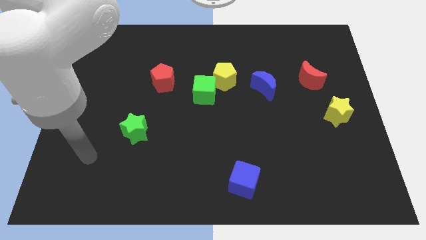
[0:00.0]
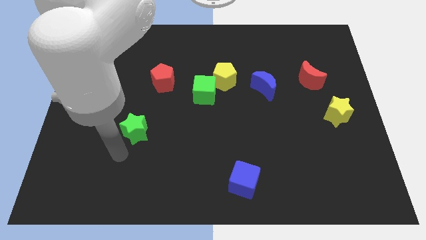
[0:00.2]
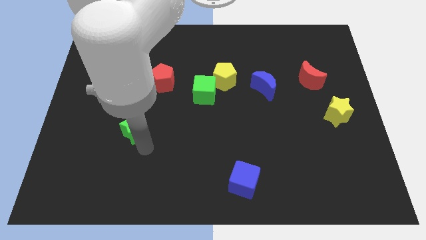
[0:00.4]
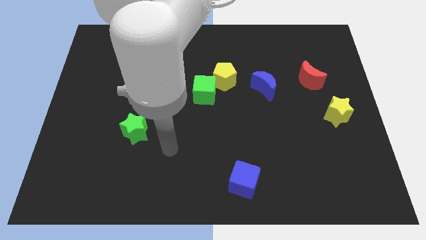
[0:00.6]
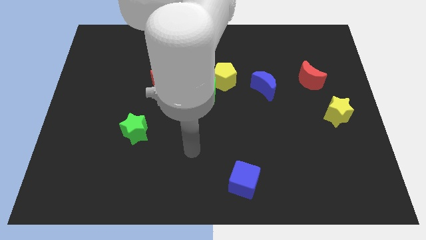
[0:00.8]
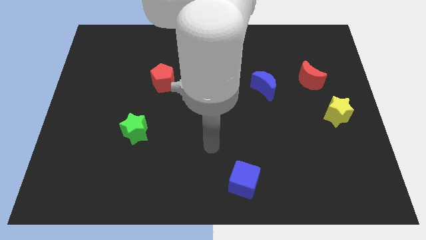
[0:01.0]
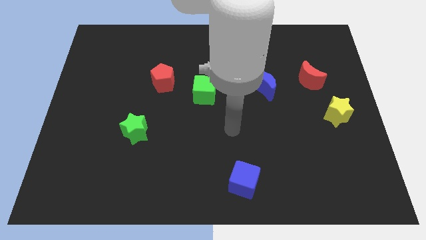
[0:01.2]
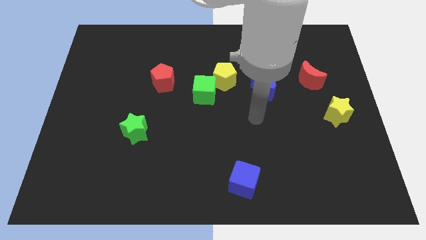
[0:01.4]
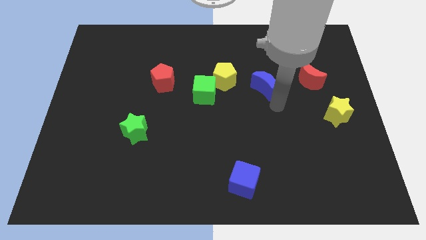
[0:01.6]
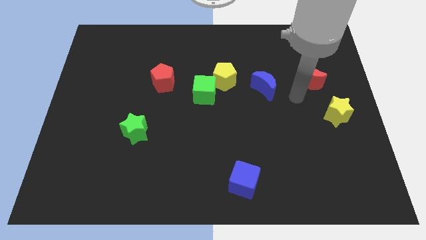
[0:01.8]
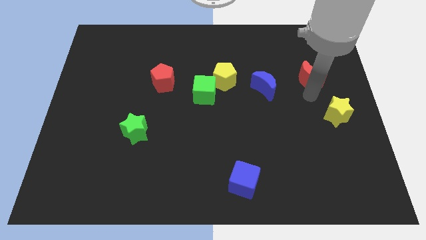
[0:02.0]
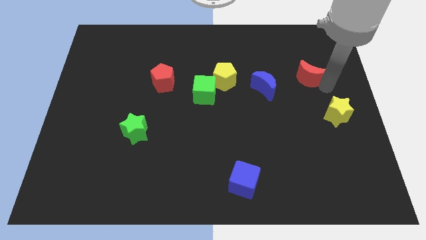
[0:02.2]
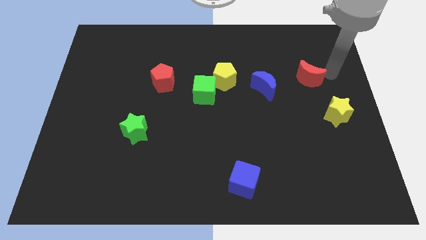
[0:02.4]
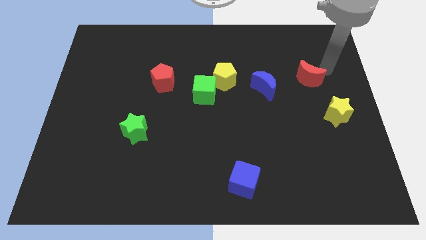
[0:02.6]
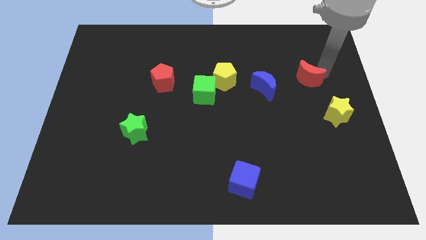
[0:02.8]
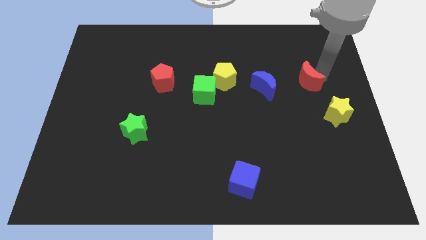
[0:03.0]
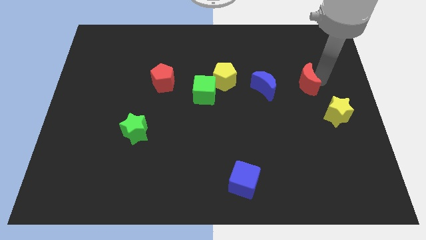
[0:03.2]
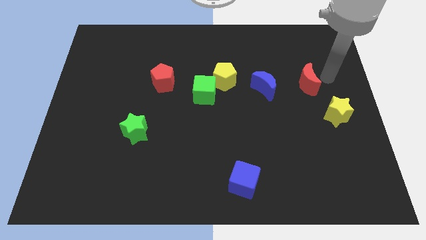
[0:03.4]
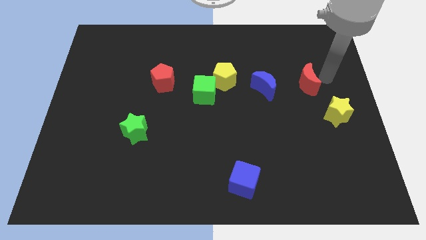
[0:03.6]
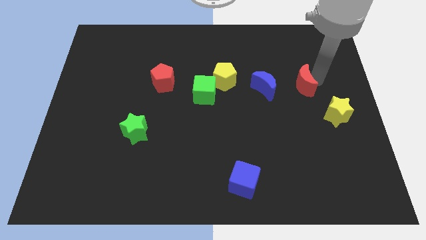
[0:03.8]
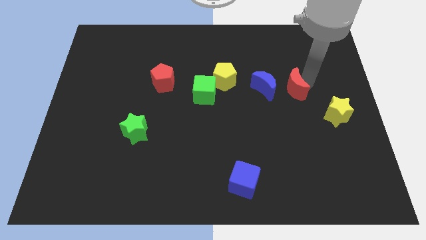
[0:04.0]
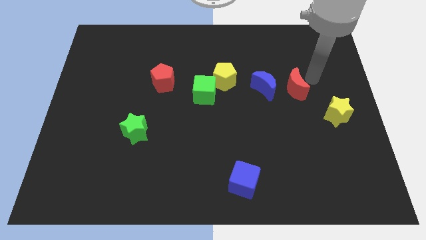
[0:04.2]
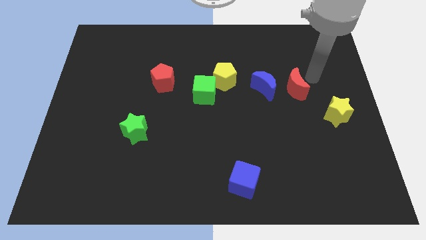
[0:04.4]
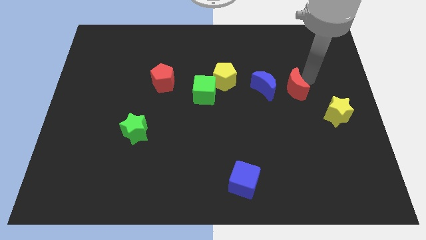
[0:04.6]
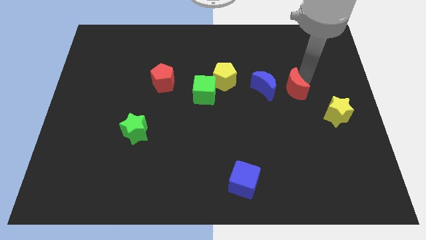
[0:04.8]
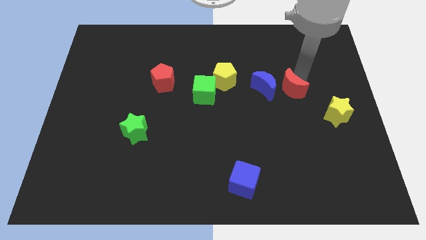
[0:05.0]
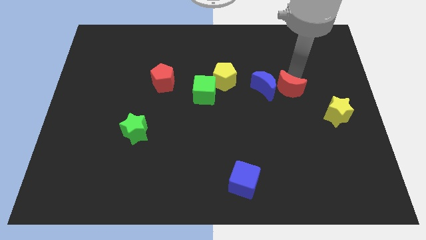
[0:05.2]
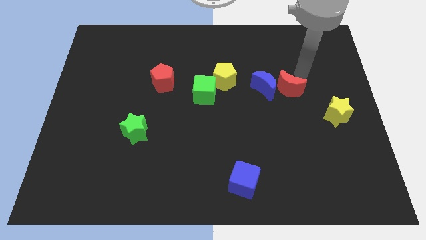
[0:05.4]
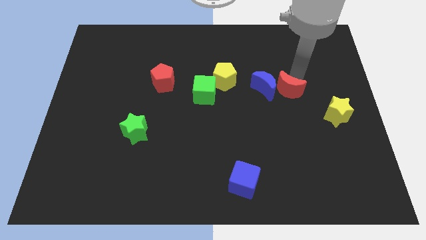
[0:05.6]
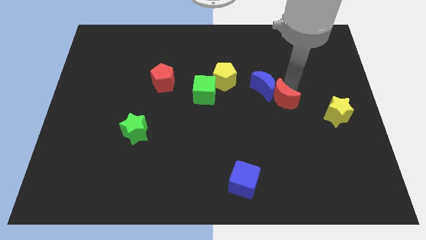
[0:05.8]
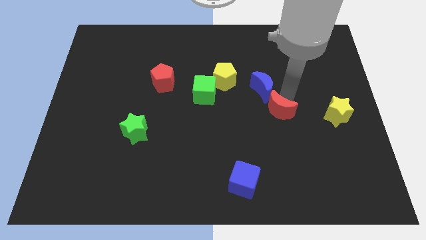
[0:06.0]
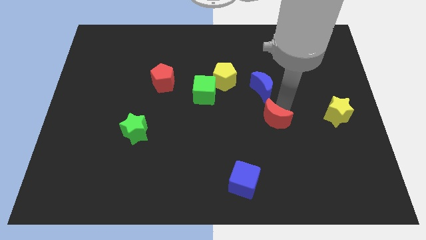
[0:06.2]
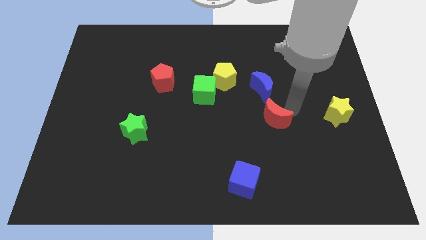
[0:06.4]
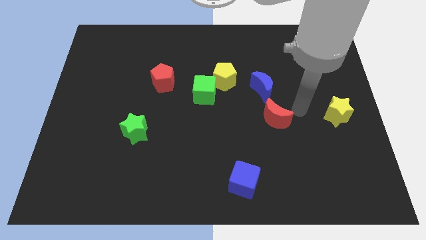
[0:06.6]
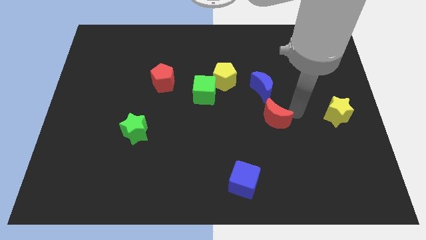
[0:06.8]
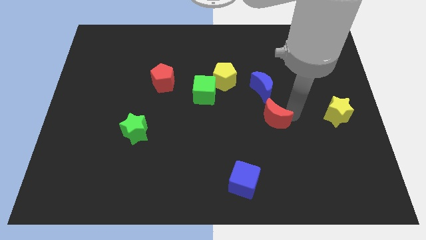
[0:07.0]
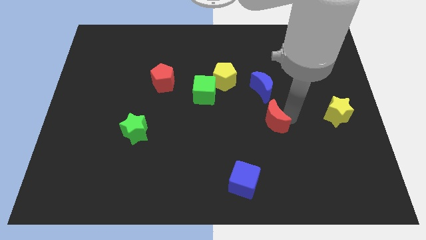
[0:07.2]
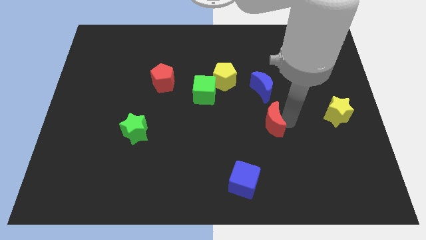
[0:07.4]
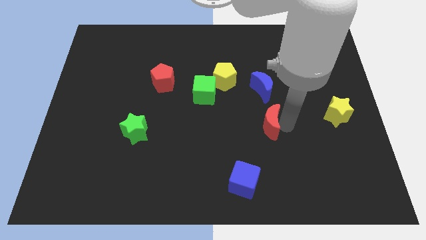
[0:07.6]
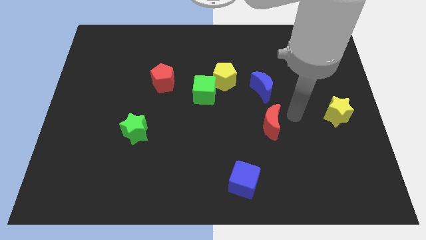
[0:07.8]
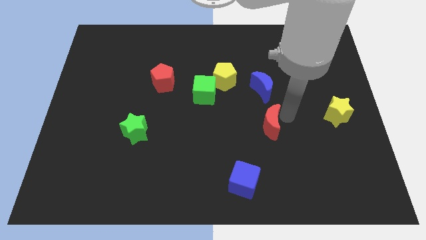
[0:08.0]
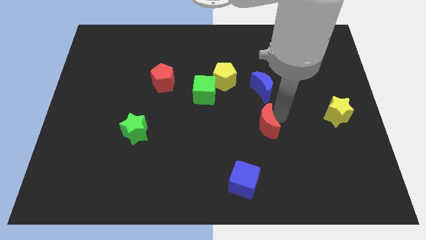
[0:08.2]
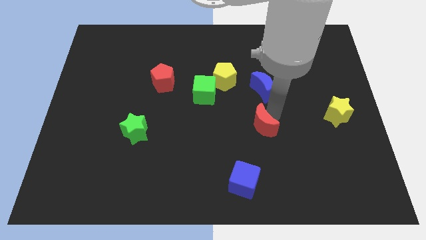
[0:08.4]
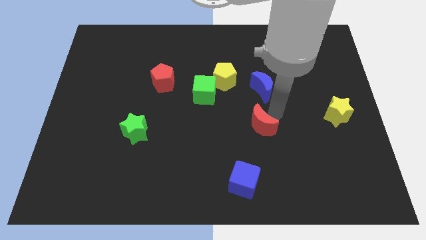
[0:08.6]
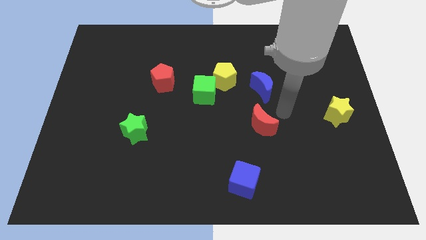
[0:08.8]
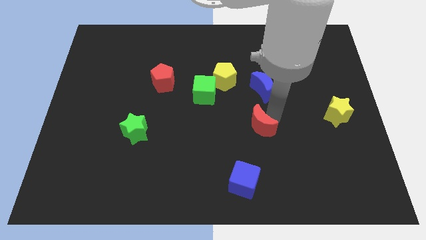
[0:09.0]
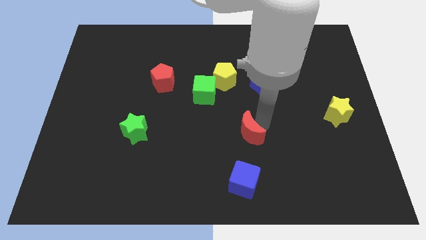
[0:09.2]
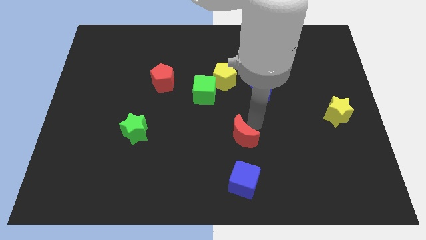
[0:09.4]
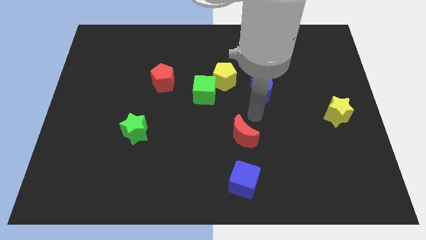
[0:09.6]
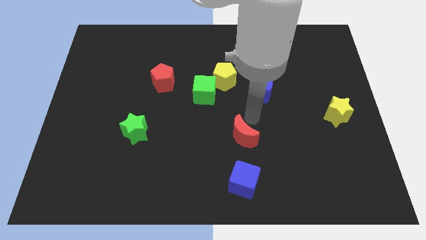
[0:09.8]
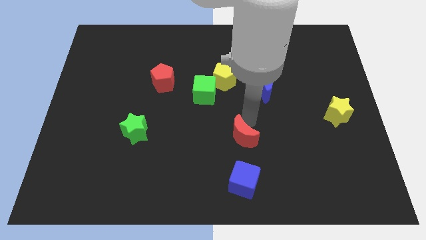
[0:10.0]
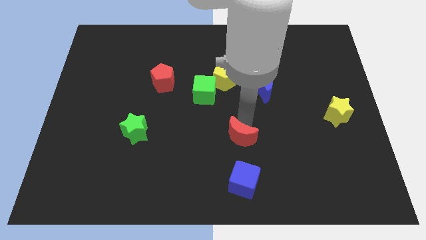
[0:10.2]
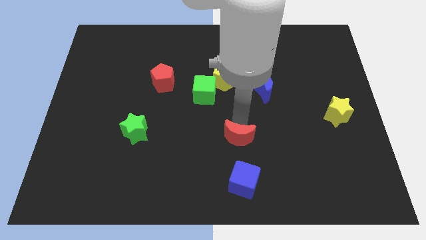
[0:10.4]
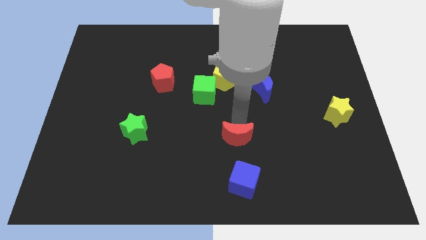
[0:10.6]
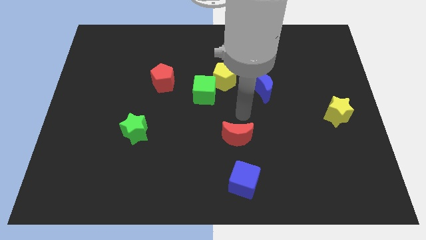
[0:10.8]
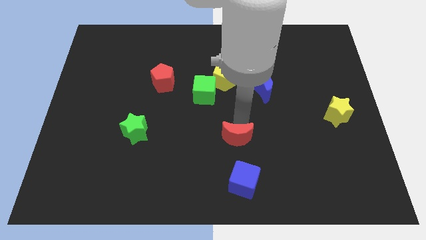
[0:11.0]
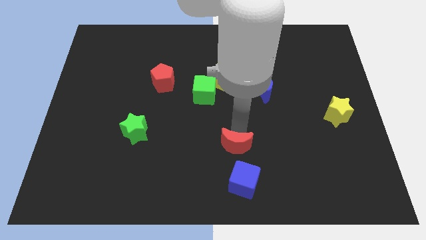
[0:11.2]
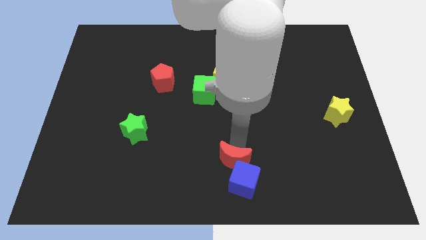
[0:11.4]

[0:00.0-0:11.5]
put the red moon to the bottom
